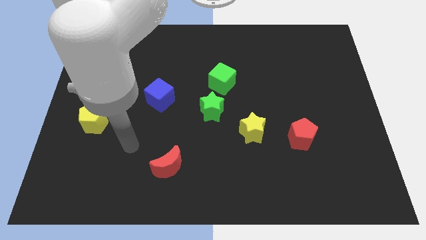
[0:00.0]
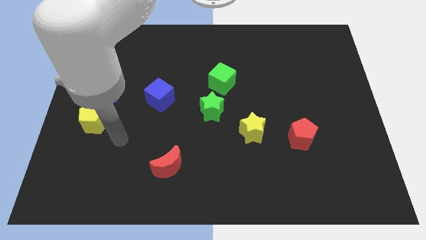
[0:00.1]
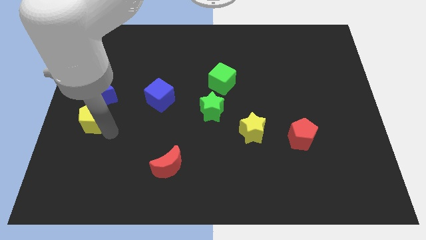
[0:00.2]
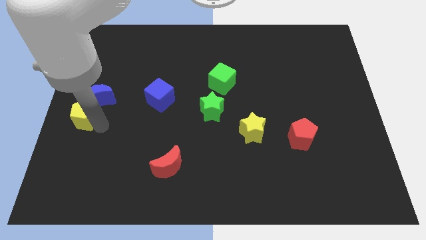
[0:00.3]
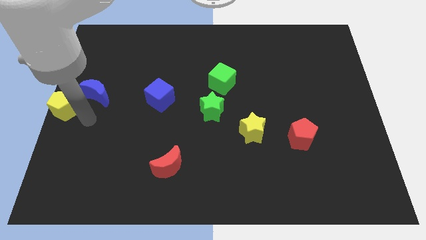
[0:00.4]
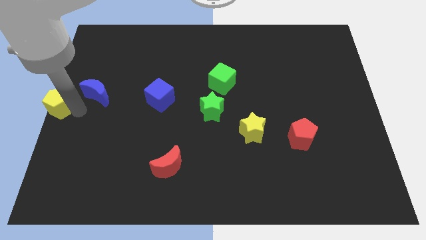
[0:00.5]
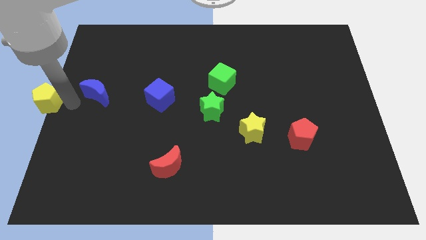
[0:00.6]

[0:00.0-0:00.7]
move the blue moon away from the yellow pentagon

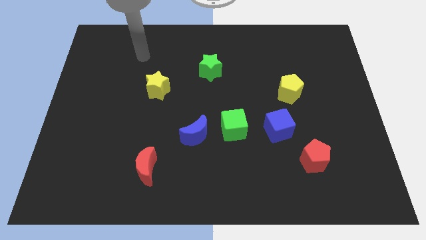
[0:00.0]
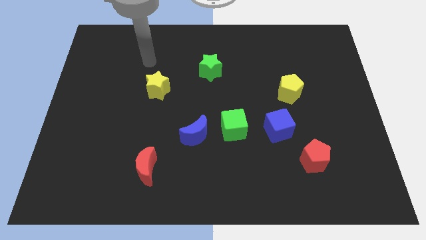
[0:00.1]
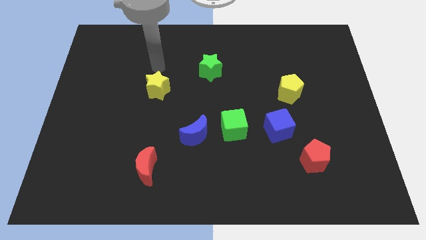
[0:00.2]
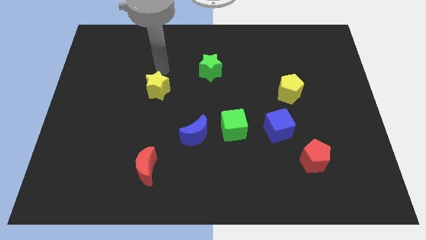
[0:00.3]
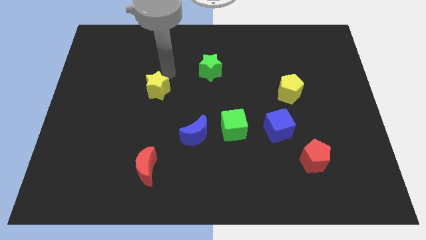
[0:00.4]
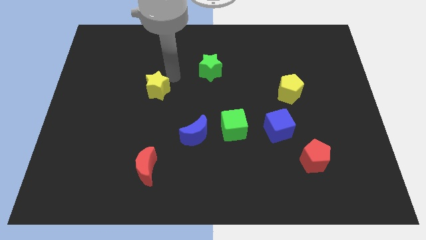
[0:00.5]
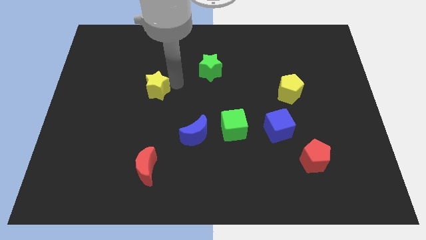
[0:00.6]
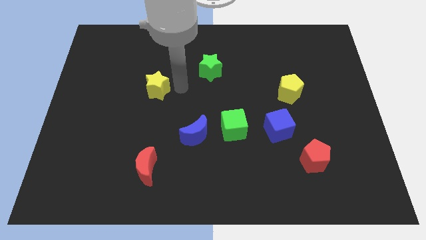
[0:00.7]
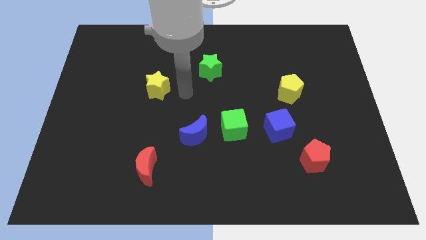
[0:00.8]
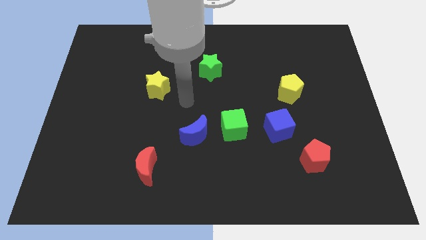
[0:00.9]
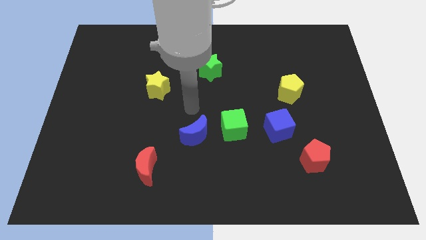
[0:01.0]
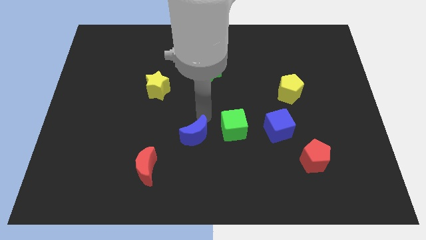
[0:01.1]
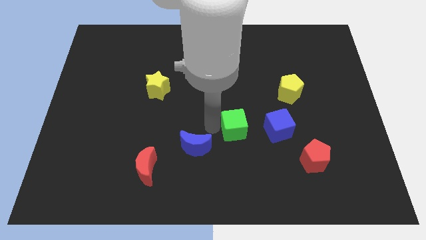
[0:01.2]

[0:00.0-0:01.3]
move the blue moon away from the green cube

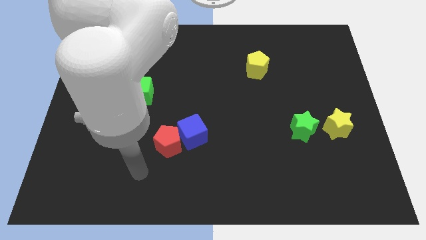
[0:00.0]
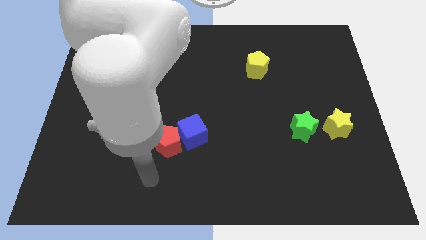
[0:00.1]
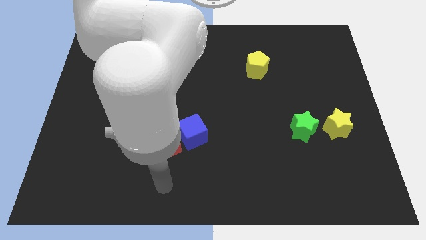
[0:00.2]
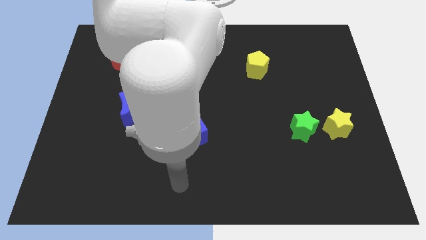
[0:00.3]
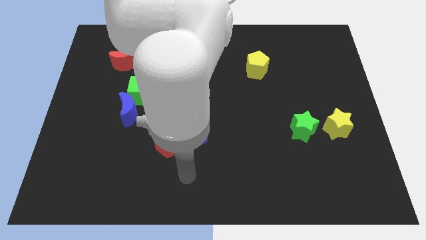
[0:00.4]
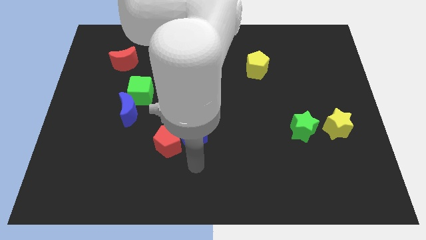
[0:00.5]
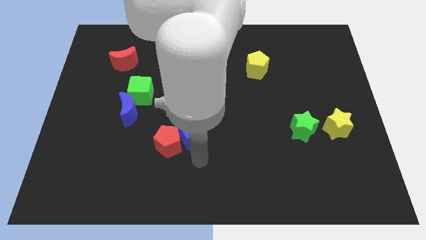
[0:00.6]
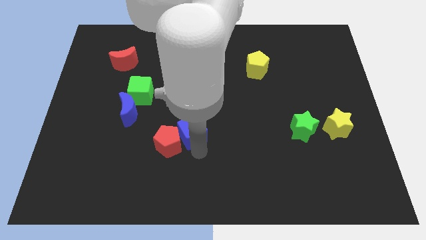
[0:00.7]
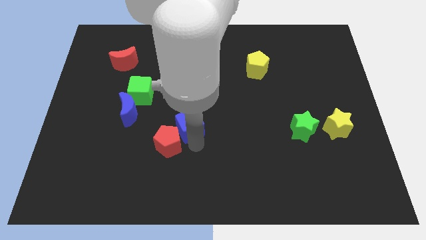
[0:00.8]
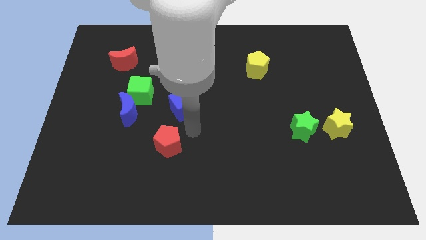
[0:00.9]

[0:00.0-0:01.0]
pull the red pentagon apart from the blue cube

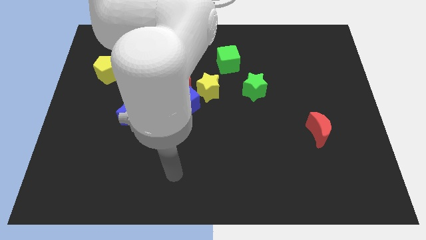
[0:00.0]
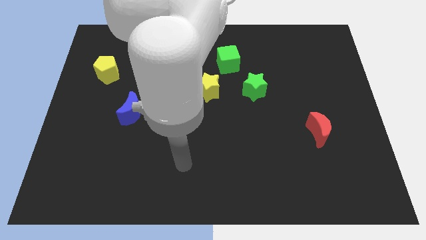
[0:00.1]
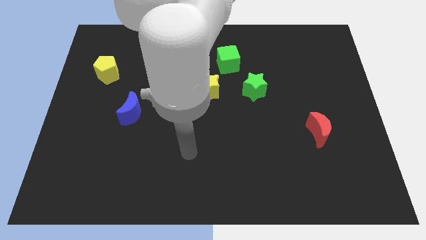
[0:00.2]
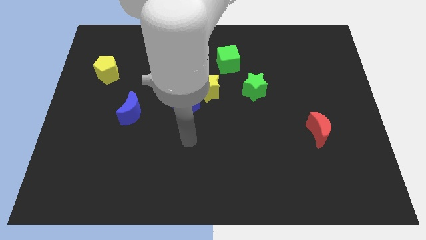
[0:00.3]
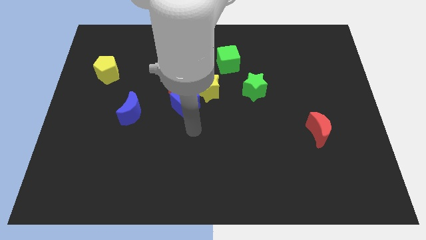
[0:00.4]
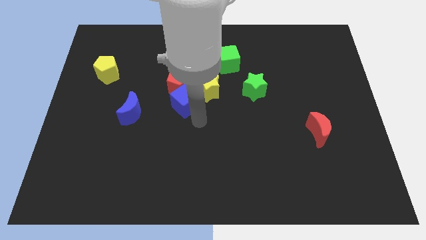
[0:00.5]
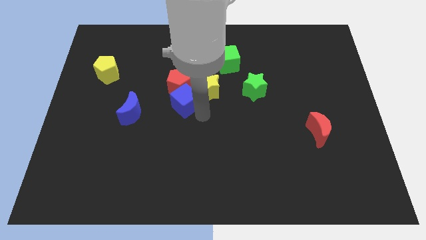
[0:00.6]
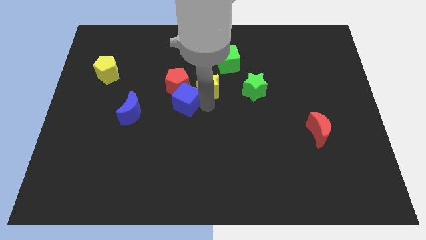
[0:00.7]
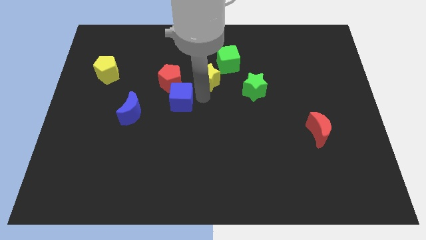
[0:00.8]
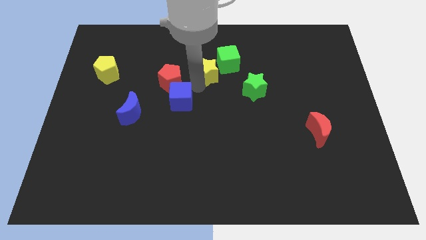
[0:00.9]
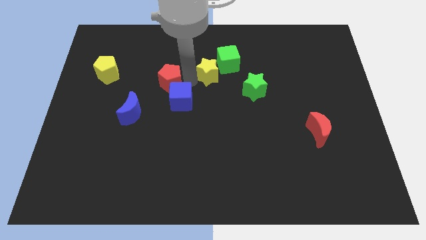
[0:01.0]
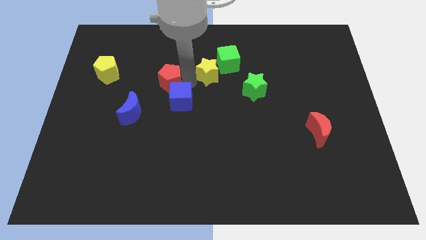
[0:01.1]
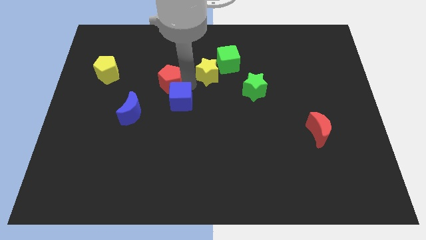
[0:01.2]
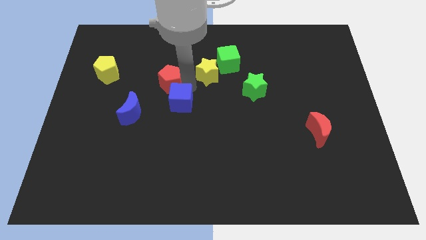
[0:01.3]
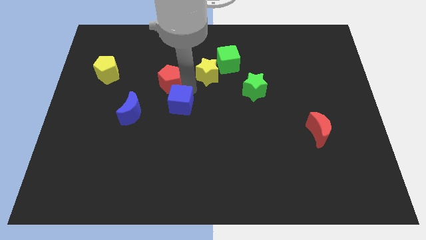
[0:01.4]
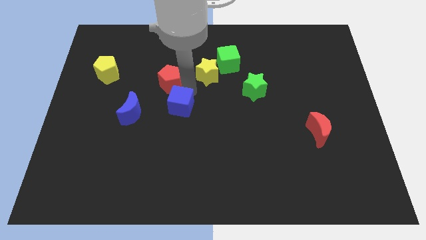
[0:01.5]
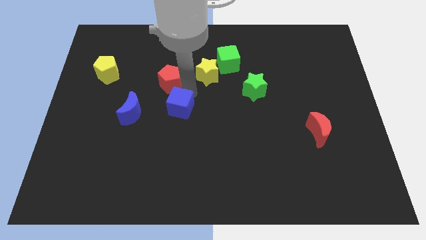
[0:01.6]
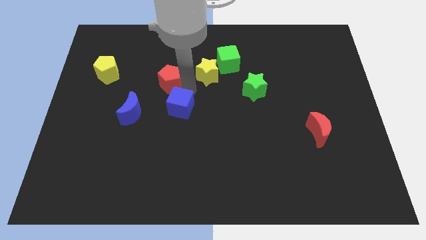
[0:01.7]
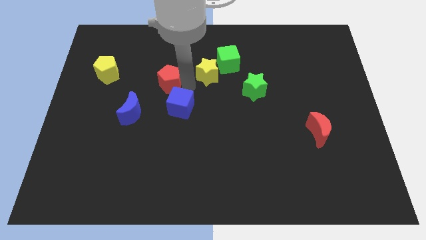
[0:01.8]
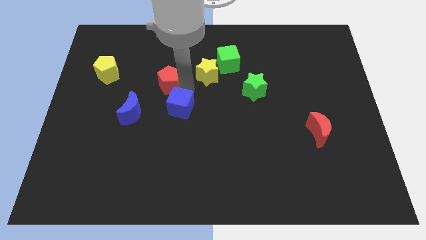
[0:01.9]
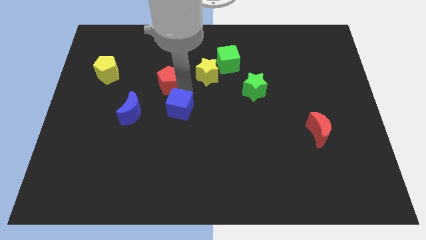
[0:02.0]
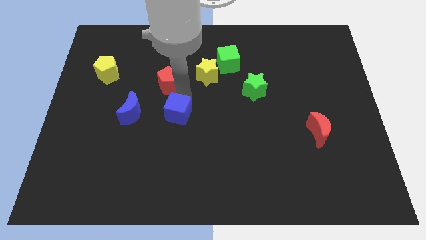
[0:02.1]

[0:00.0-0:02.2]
pull the blue cube apart from the red pentagon and yellow star

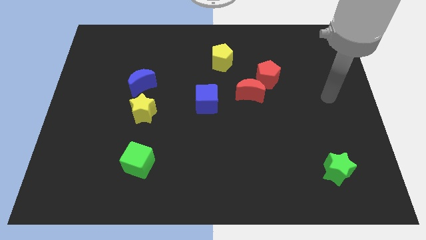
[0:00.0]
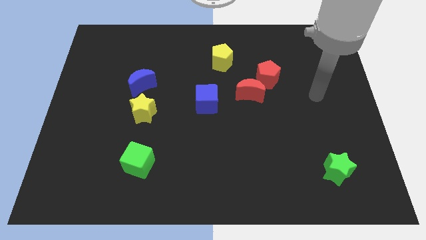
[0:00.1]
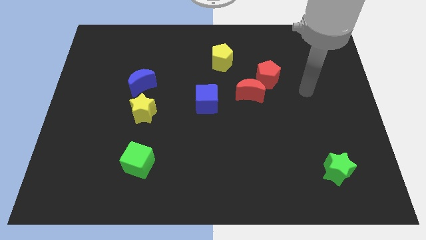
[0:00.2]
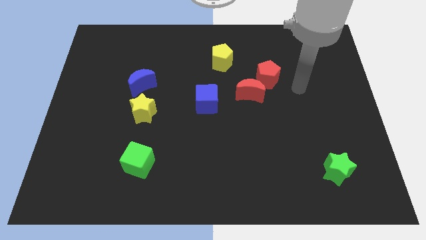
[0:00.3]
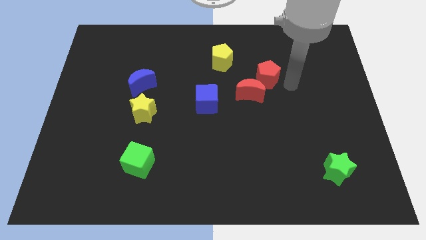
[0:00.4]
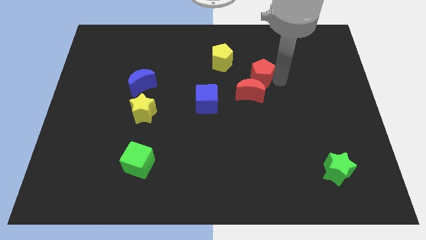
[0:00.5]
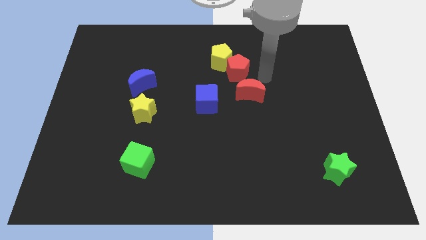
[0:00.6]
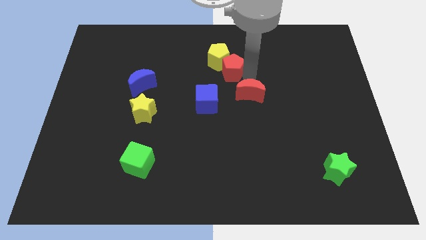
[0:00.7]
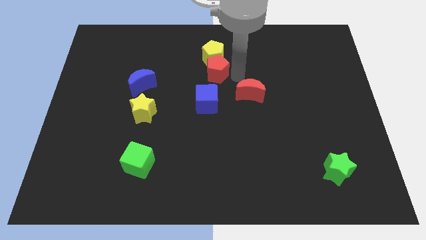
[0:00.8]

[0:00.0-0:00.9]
pull the red moon apart from the red pentagon

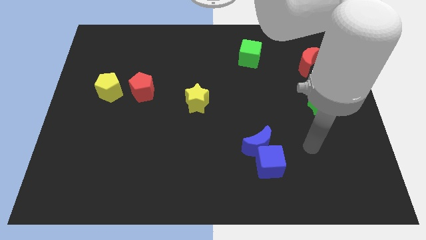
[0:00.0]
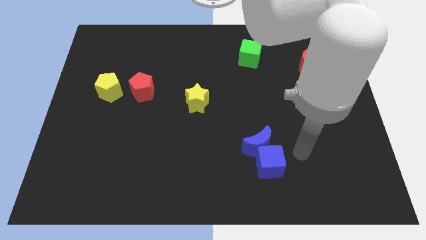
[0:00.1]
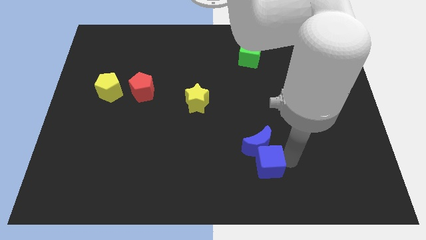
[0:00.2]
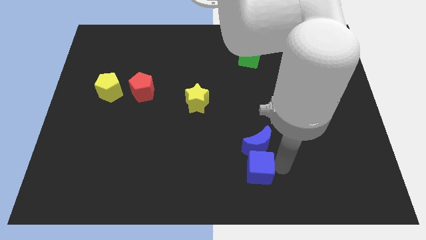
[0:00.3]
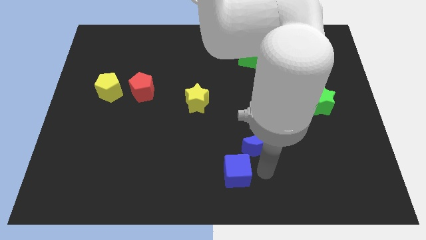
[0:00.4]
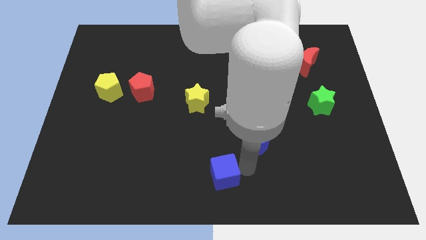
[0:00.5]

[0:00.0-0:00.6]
pull the blue moon apart from the blue cube

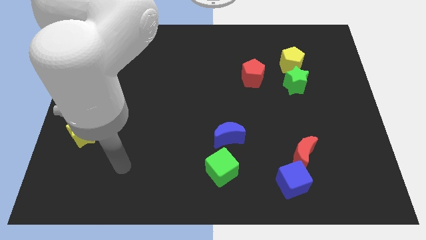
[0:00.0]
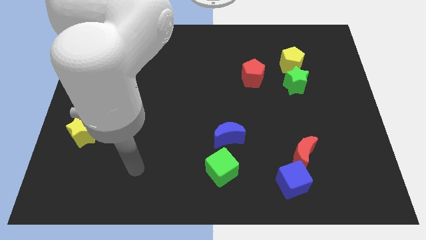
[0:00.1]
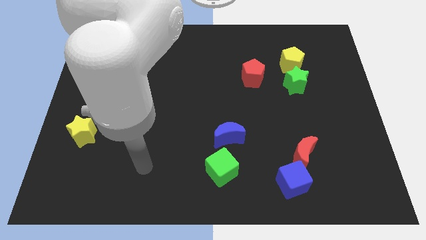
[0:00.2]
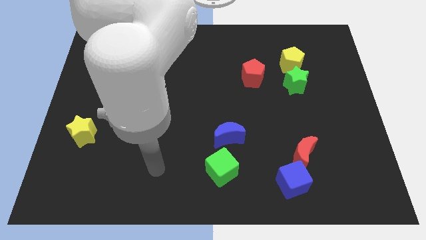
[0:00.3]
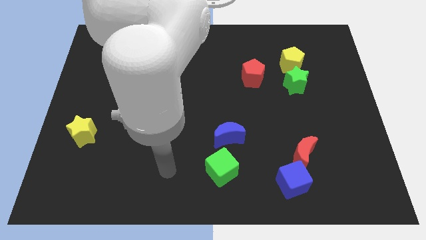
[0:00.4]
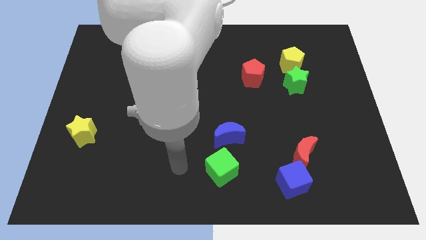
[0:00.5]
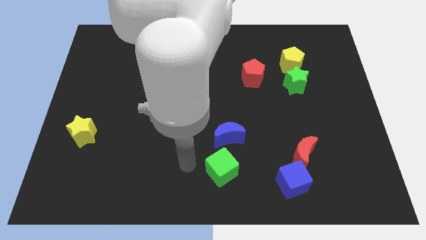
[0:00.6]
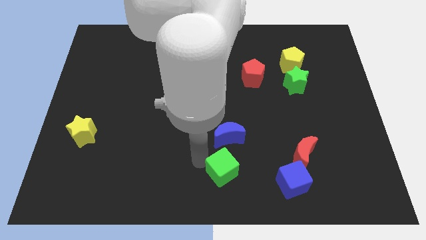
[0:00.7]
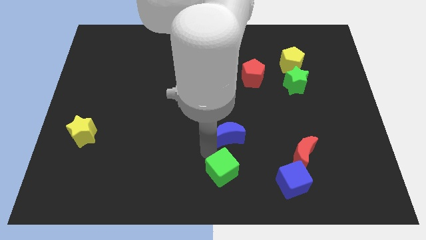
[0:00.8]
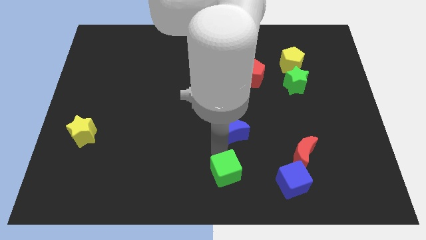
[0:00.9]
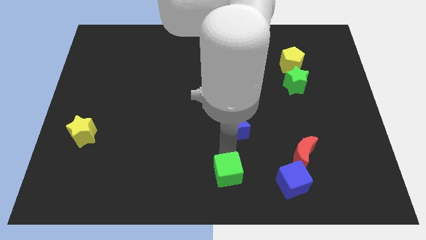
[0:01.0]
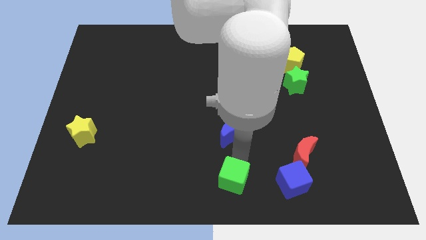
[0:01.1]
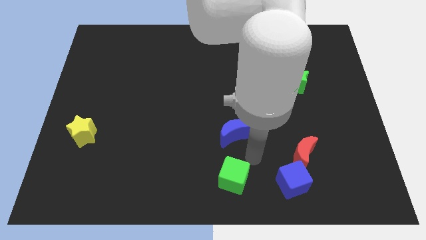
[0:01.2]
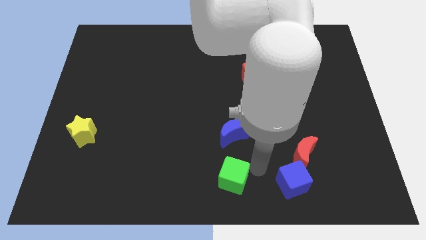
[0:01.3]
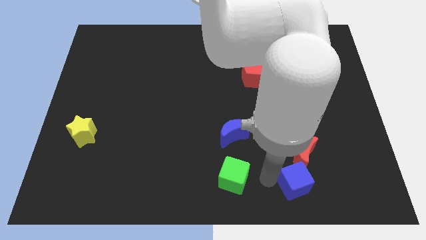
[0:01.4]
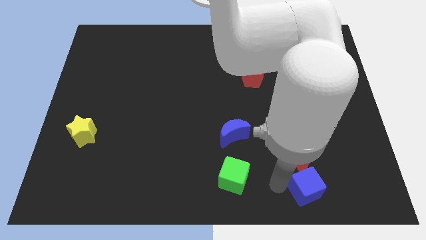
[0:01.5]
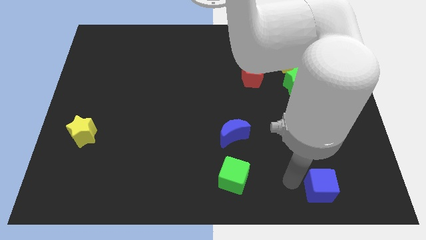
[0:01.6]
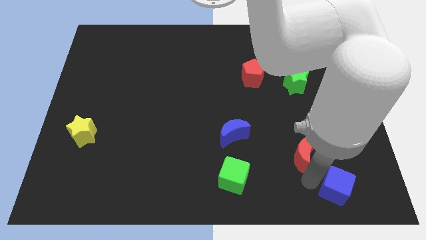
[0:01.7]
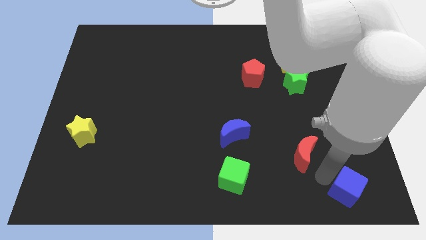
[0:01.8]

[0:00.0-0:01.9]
pull the red moon apart from the blue cube

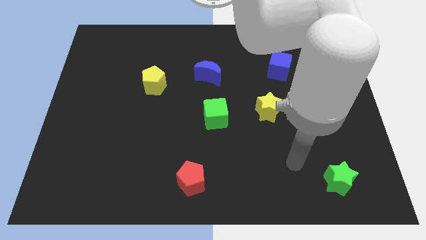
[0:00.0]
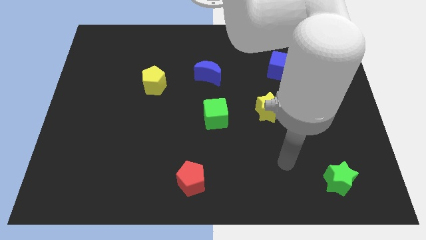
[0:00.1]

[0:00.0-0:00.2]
move the red moon away from the blue cube

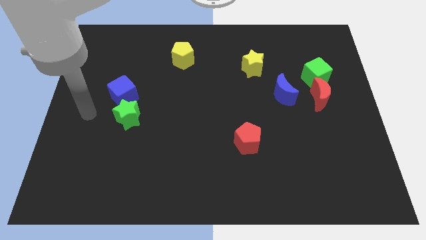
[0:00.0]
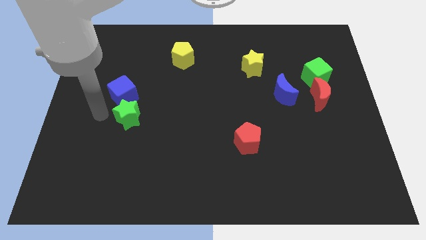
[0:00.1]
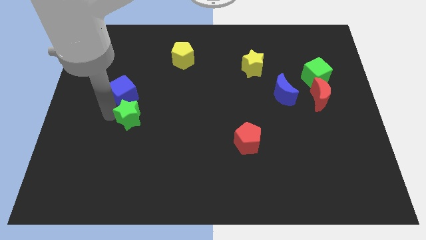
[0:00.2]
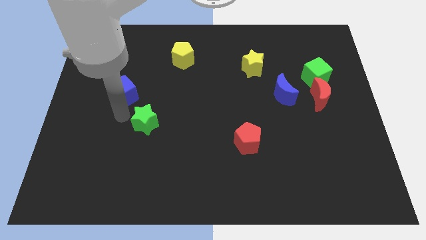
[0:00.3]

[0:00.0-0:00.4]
pull the blue cube apart from the green star
